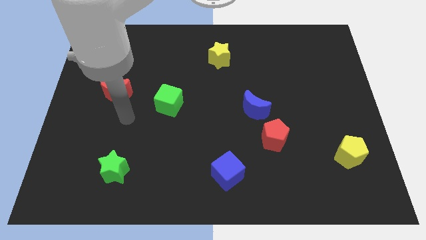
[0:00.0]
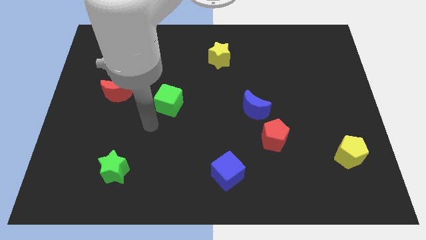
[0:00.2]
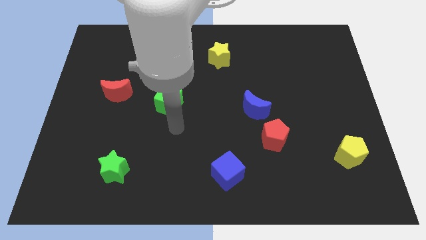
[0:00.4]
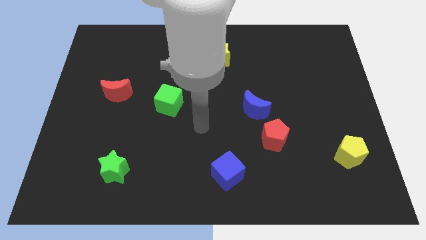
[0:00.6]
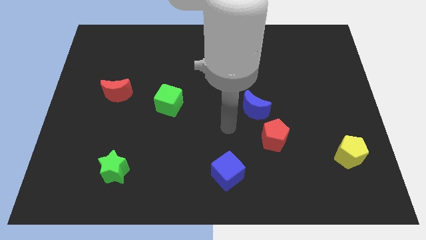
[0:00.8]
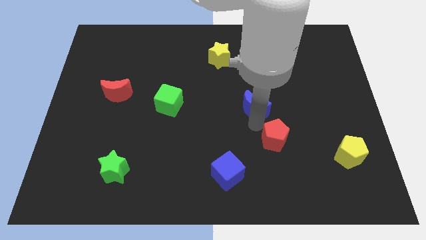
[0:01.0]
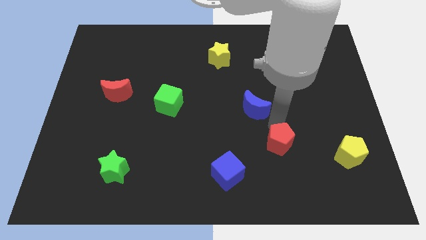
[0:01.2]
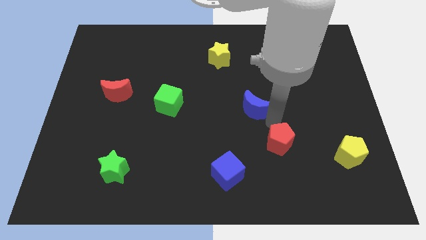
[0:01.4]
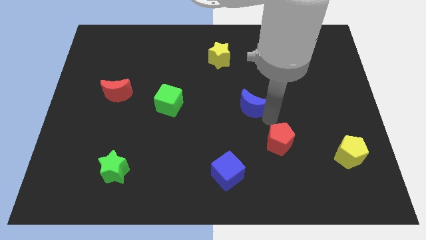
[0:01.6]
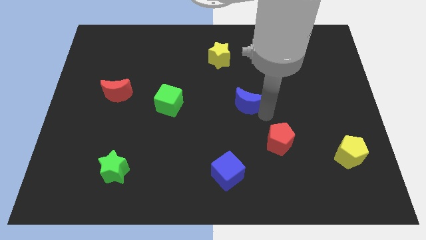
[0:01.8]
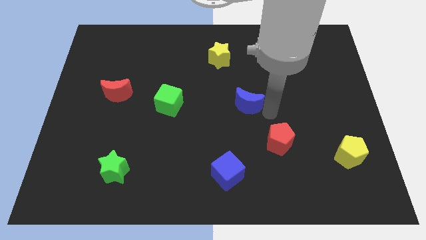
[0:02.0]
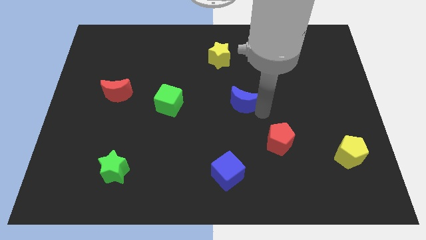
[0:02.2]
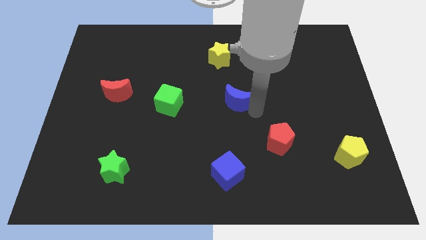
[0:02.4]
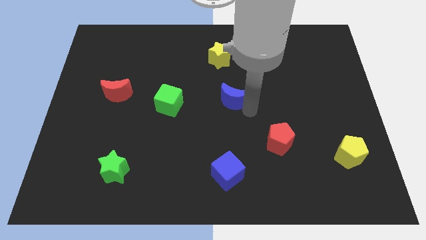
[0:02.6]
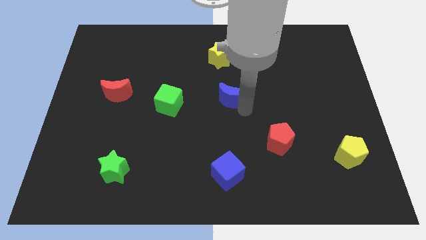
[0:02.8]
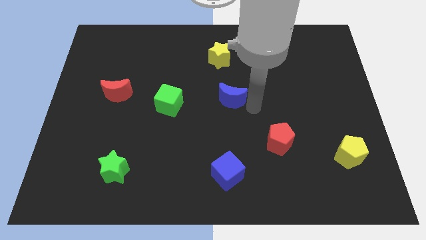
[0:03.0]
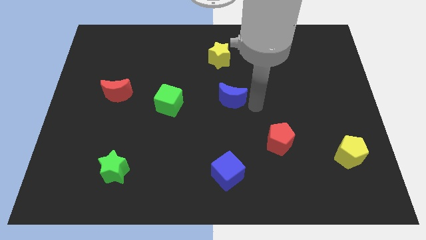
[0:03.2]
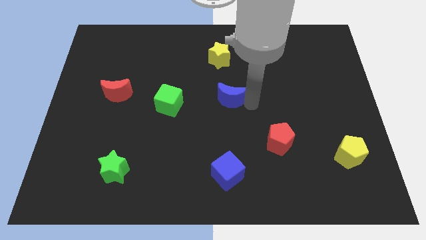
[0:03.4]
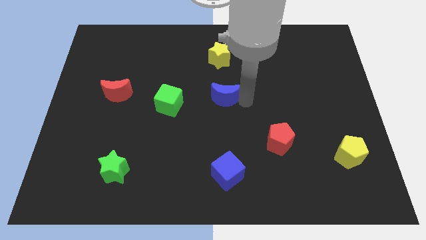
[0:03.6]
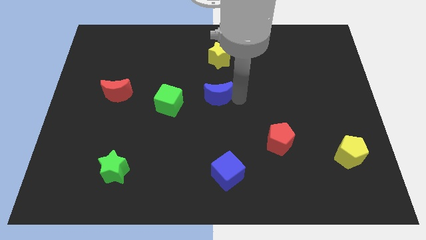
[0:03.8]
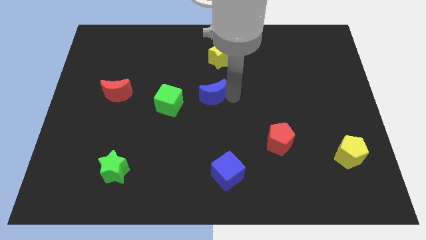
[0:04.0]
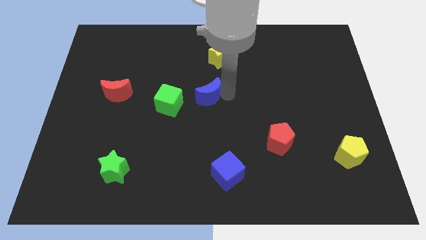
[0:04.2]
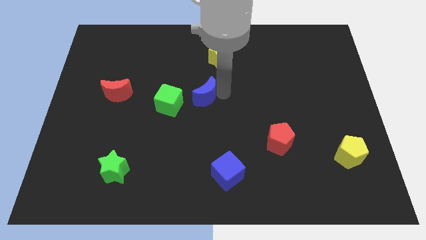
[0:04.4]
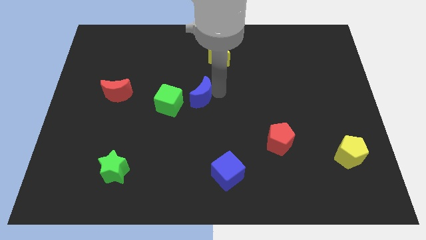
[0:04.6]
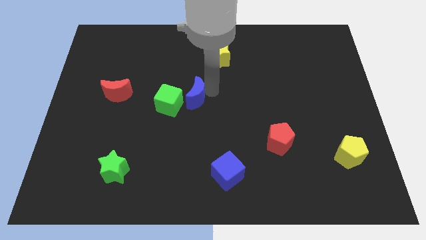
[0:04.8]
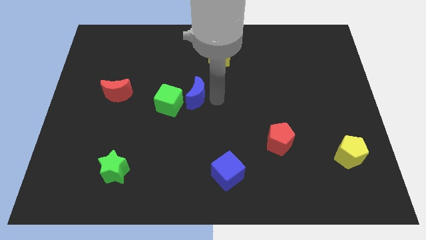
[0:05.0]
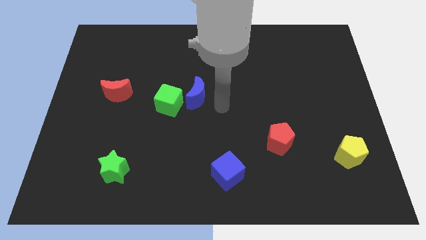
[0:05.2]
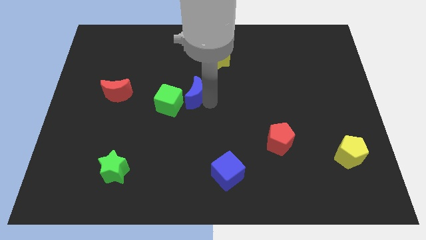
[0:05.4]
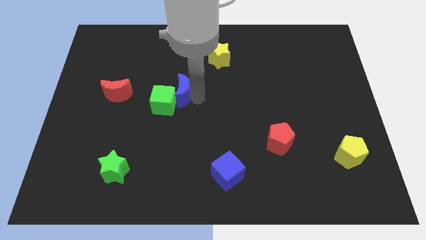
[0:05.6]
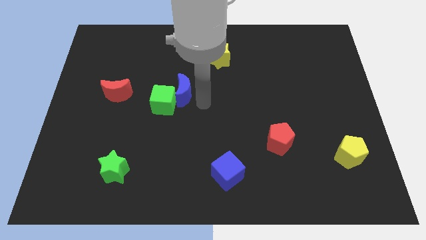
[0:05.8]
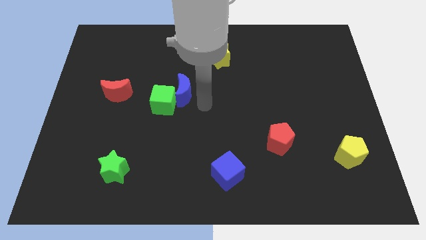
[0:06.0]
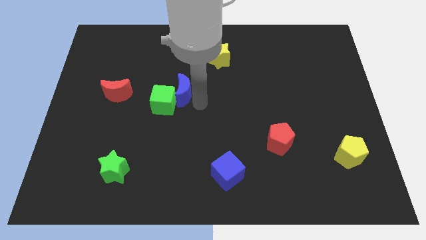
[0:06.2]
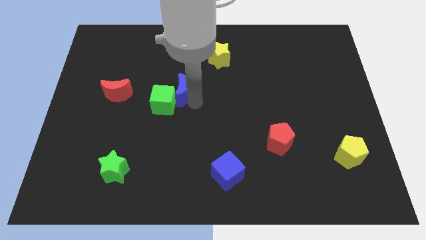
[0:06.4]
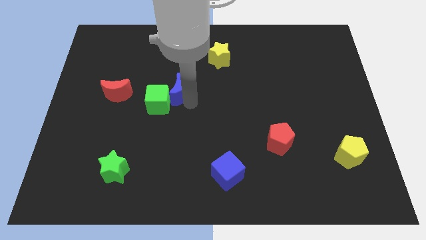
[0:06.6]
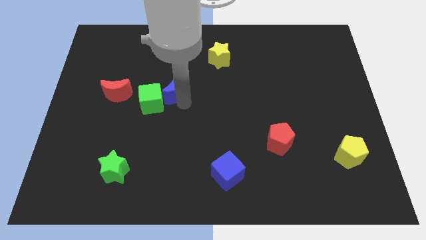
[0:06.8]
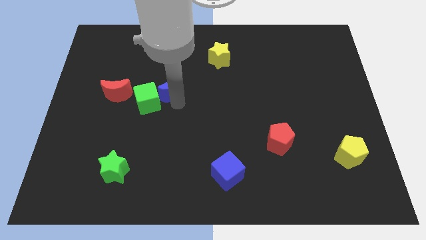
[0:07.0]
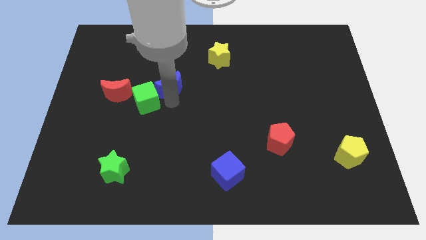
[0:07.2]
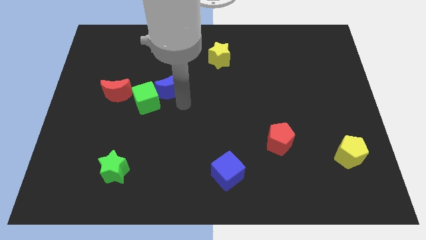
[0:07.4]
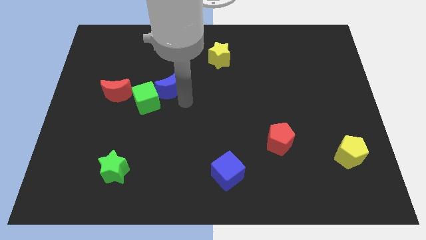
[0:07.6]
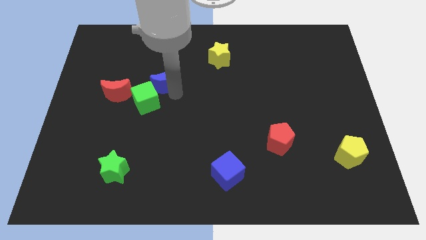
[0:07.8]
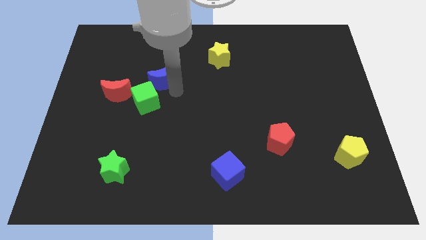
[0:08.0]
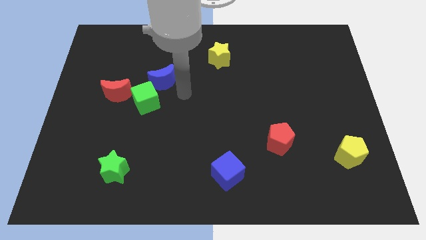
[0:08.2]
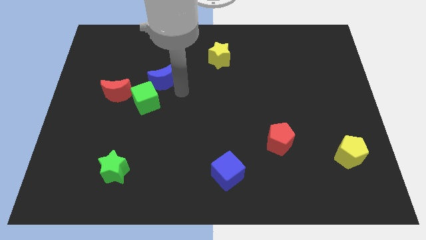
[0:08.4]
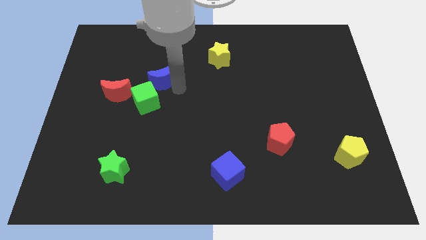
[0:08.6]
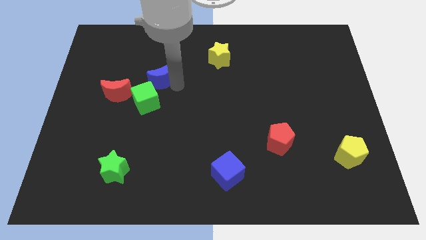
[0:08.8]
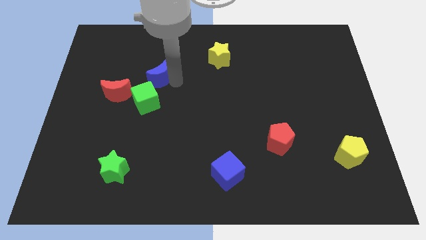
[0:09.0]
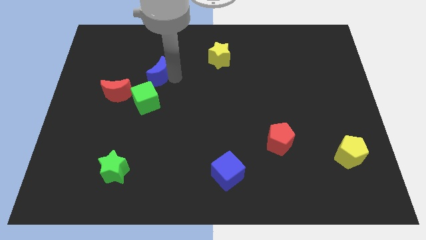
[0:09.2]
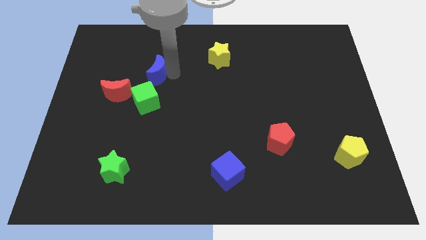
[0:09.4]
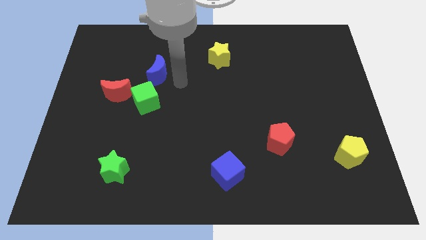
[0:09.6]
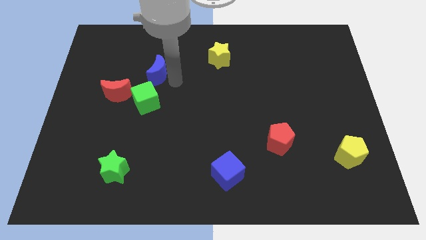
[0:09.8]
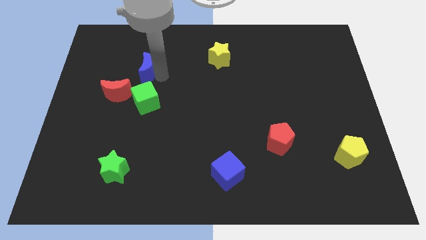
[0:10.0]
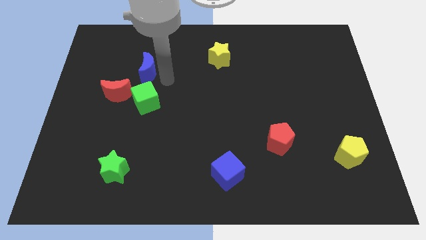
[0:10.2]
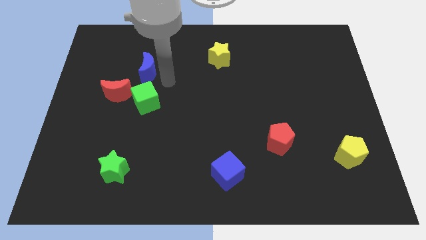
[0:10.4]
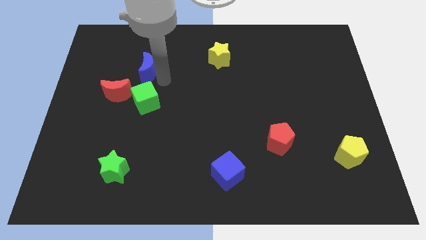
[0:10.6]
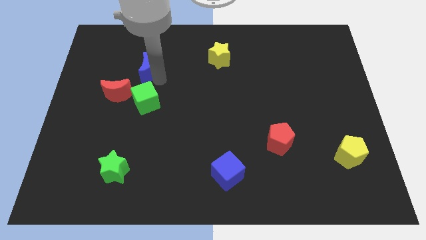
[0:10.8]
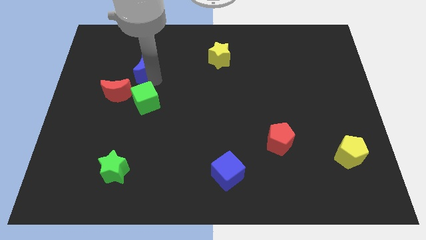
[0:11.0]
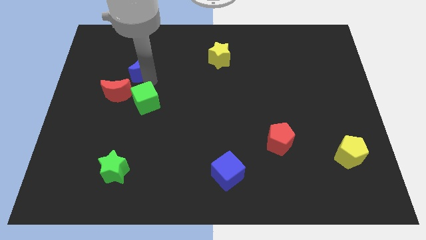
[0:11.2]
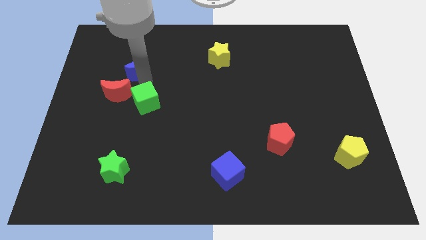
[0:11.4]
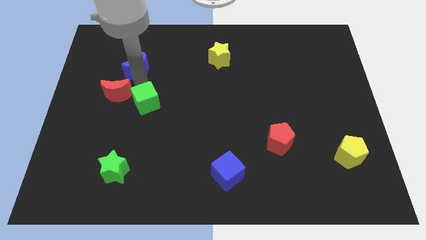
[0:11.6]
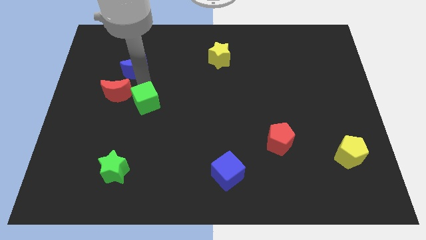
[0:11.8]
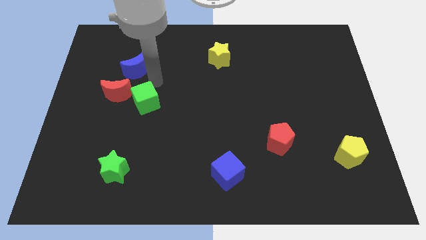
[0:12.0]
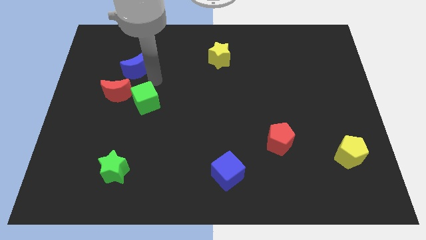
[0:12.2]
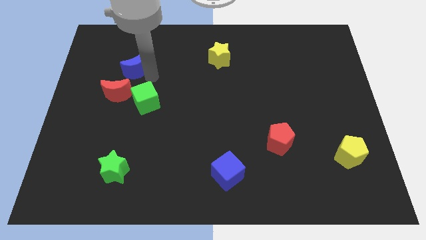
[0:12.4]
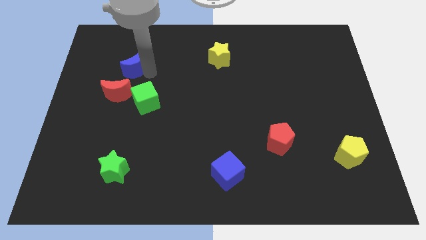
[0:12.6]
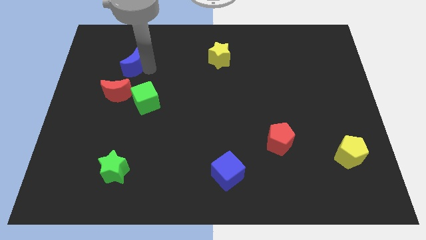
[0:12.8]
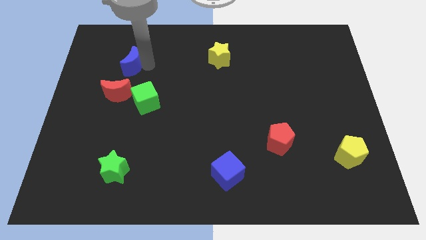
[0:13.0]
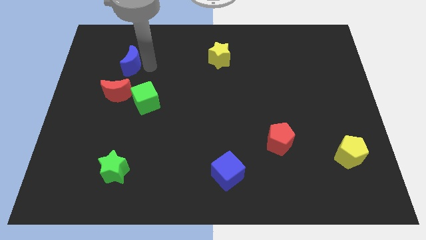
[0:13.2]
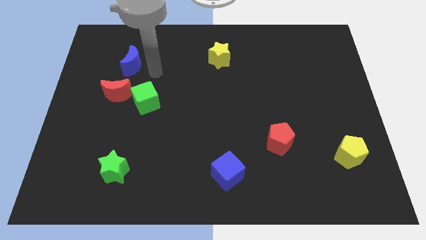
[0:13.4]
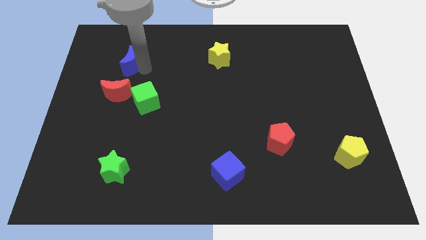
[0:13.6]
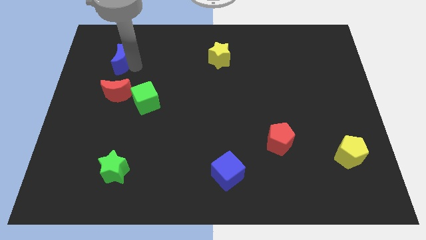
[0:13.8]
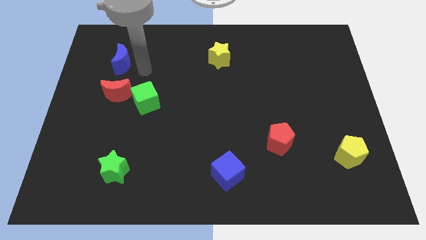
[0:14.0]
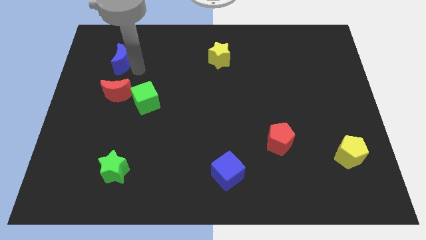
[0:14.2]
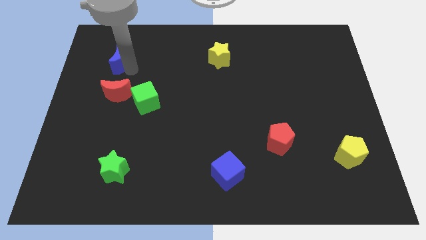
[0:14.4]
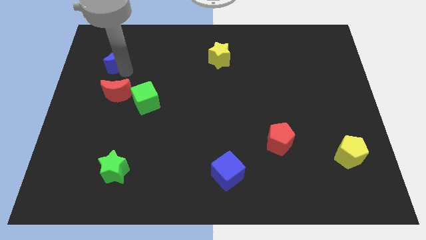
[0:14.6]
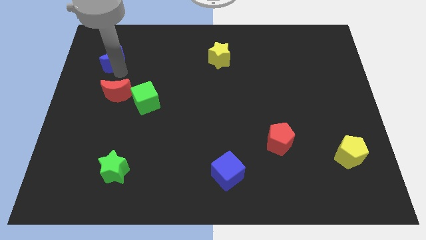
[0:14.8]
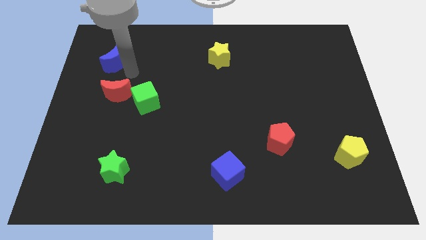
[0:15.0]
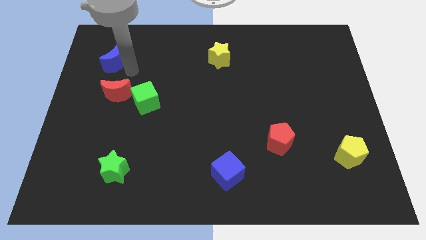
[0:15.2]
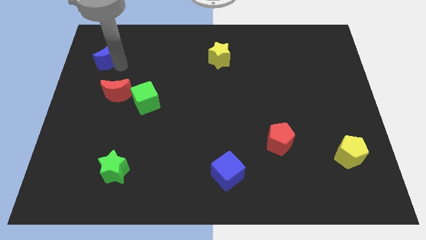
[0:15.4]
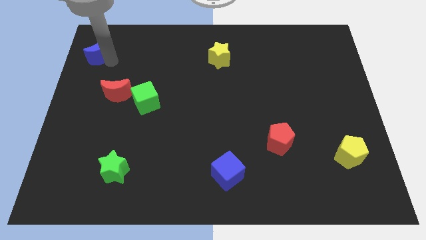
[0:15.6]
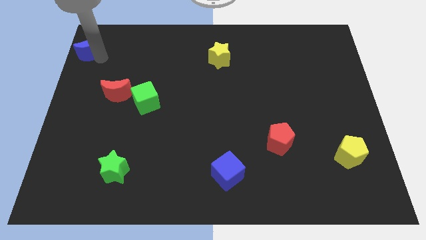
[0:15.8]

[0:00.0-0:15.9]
slide the blue moon to the top left
